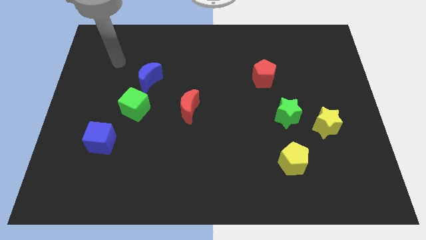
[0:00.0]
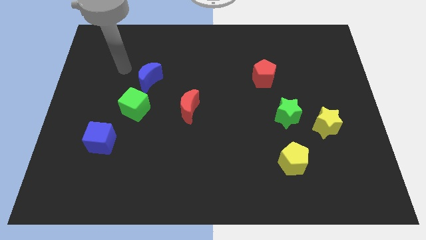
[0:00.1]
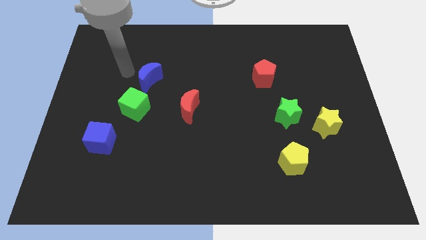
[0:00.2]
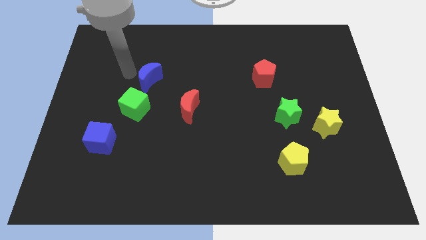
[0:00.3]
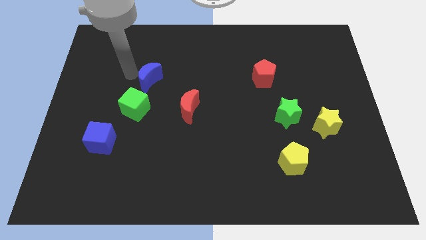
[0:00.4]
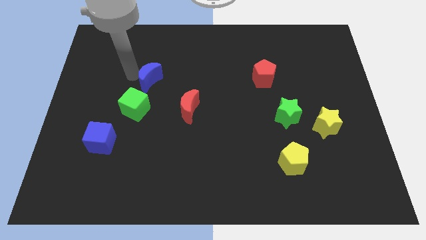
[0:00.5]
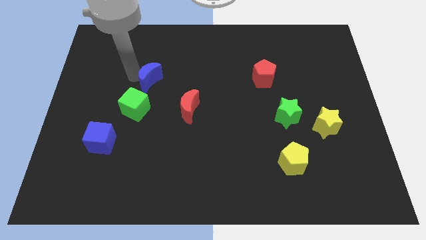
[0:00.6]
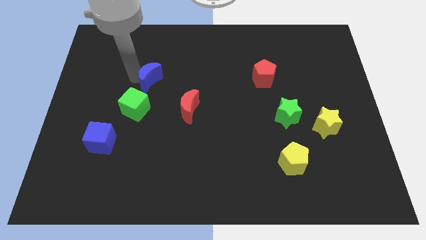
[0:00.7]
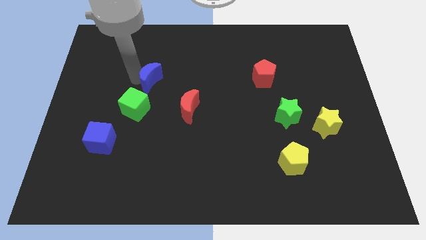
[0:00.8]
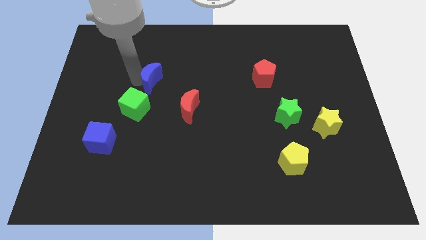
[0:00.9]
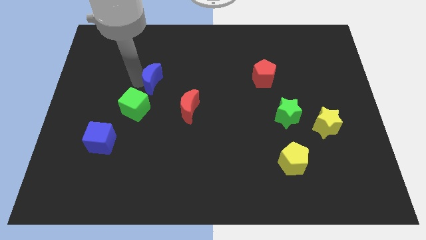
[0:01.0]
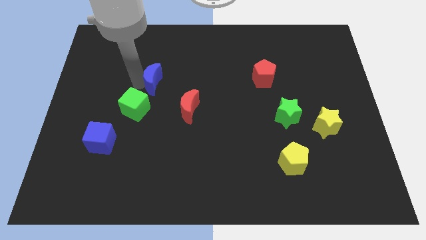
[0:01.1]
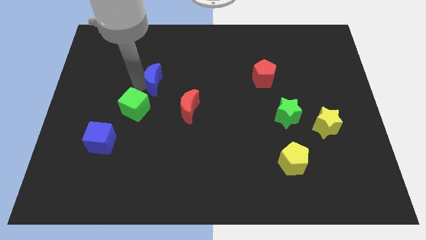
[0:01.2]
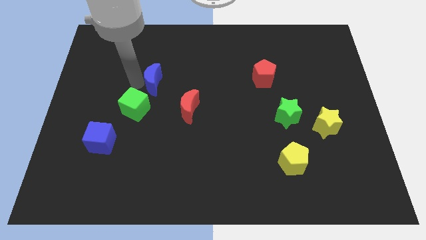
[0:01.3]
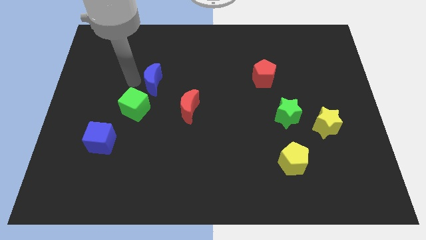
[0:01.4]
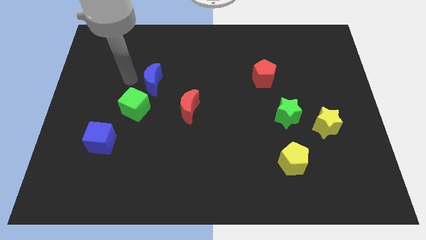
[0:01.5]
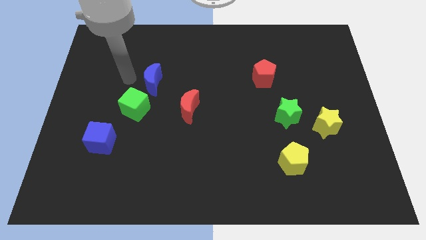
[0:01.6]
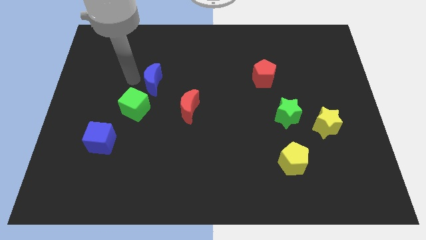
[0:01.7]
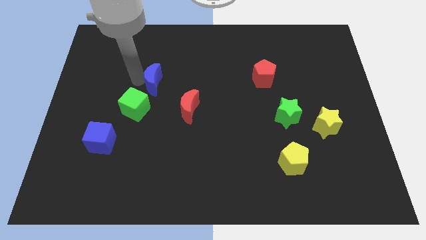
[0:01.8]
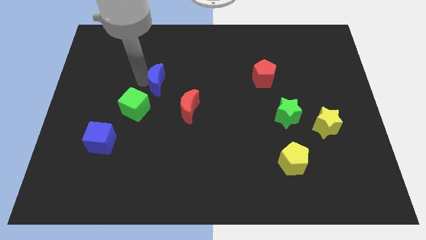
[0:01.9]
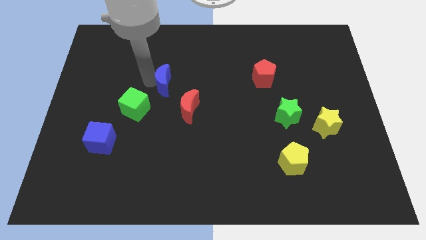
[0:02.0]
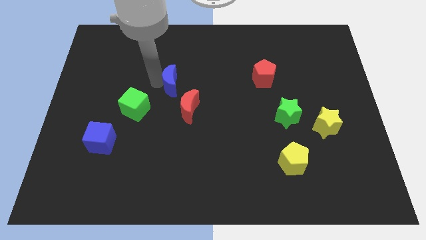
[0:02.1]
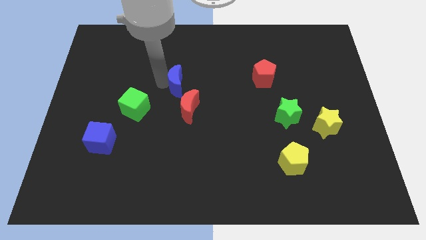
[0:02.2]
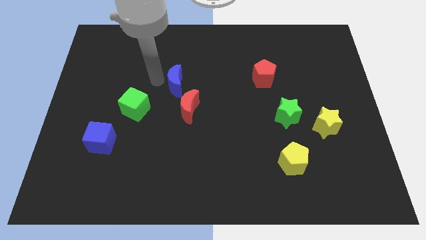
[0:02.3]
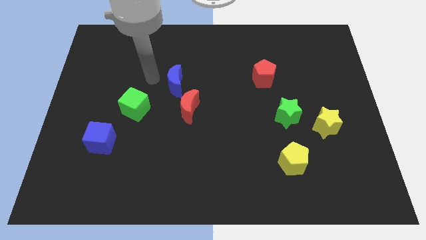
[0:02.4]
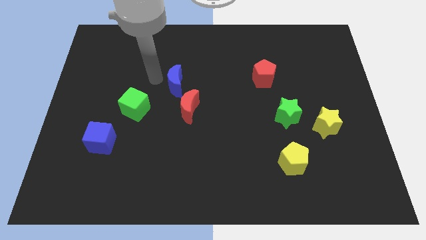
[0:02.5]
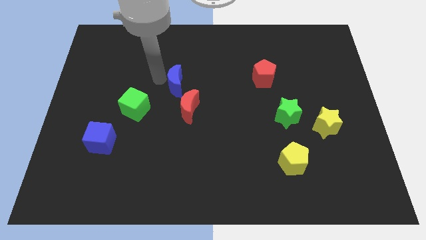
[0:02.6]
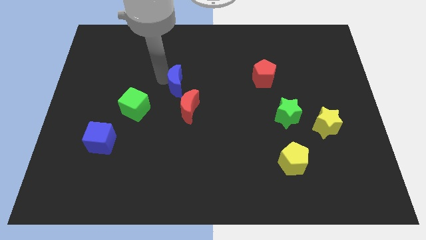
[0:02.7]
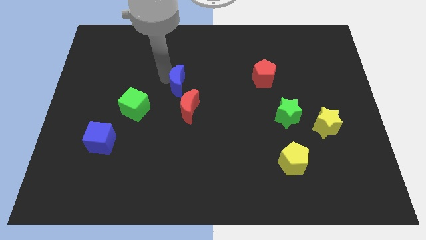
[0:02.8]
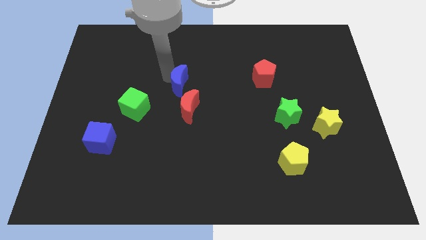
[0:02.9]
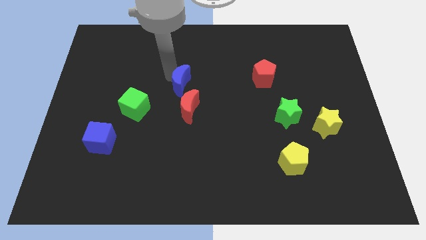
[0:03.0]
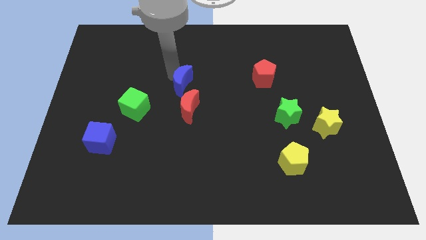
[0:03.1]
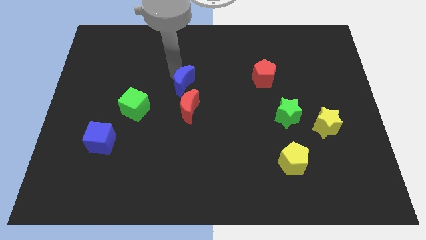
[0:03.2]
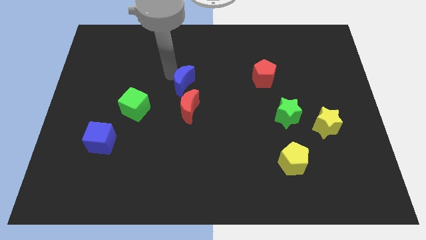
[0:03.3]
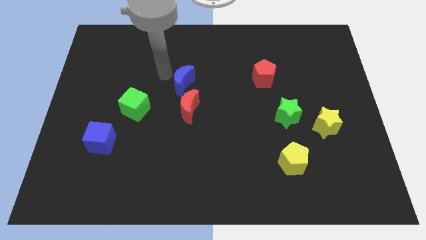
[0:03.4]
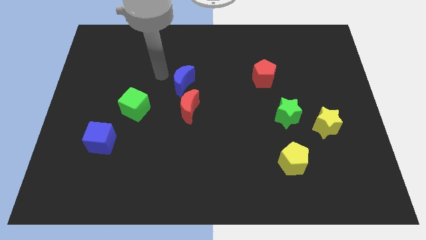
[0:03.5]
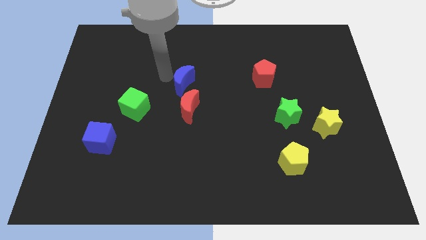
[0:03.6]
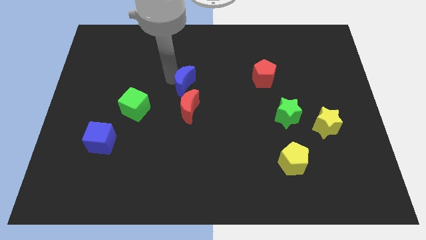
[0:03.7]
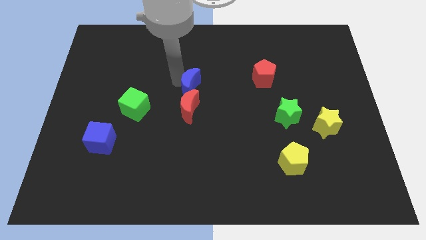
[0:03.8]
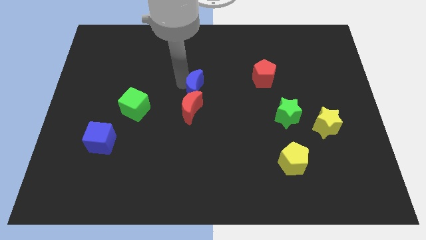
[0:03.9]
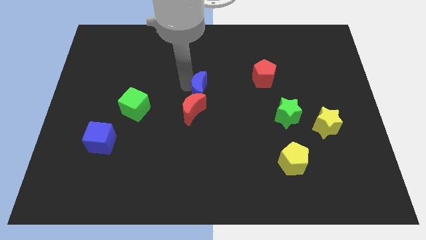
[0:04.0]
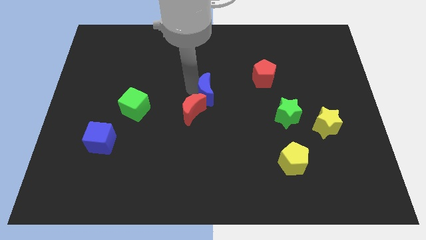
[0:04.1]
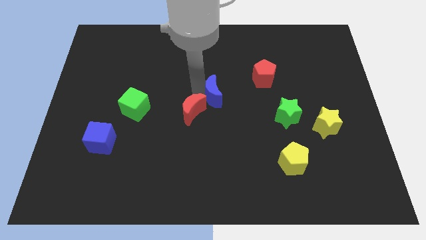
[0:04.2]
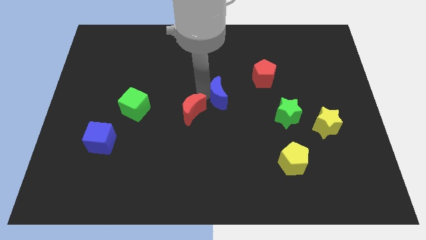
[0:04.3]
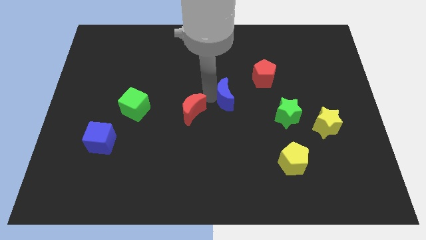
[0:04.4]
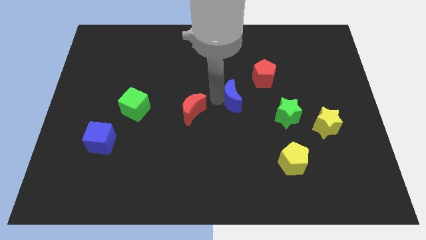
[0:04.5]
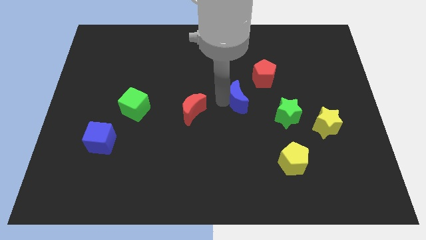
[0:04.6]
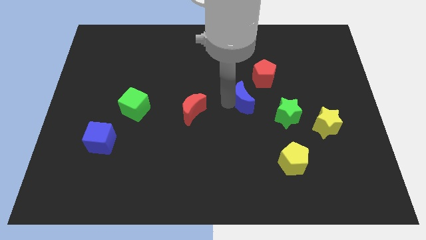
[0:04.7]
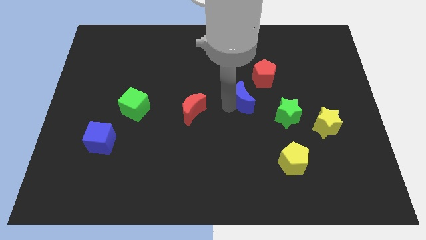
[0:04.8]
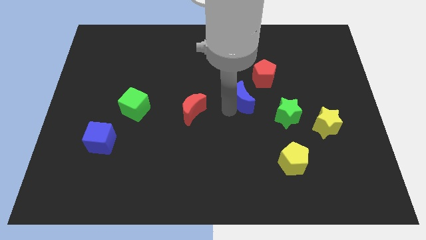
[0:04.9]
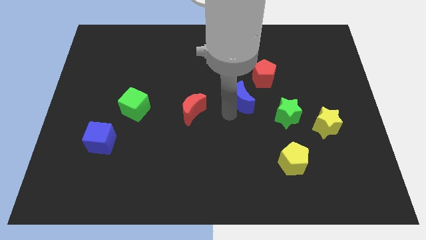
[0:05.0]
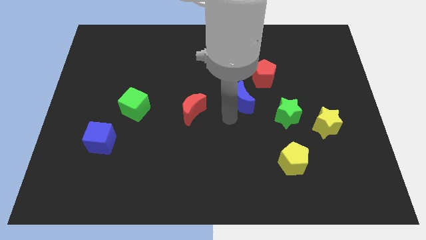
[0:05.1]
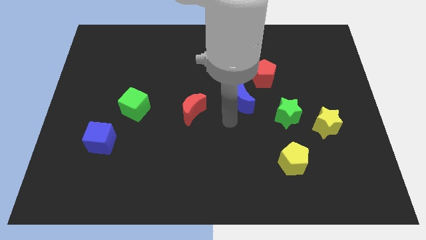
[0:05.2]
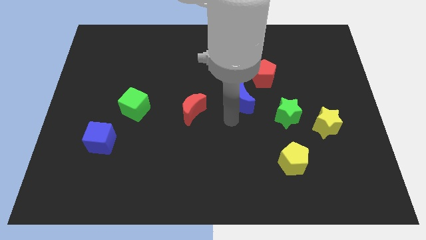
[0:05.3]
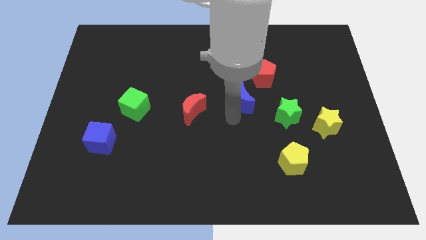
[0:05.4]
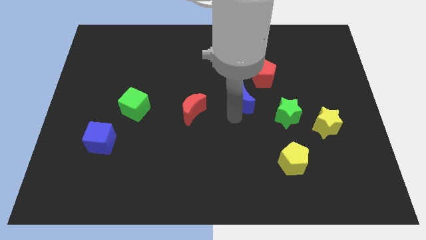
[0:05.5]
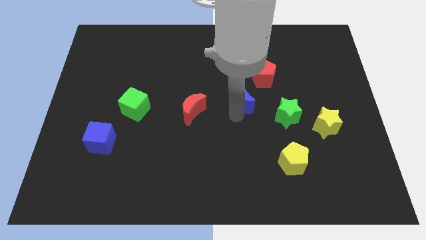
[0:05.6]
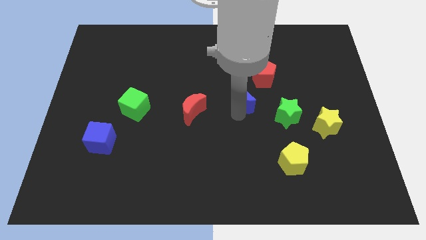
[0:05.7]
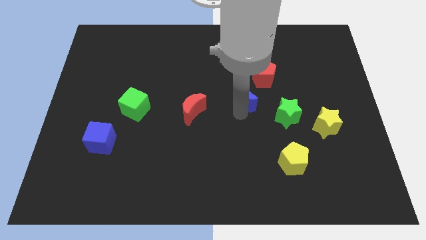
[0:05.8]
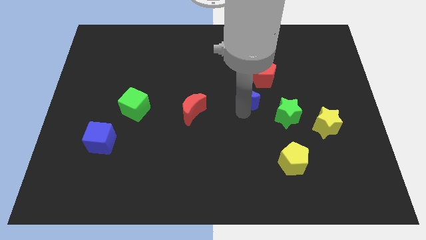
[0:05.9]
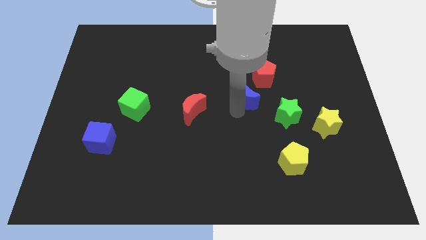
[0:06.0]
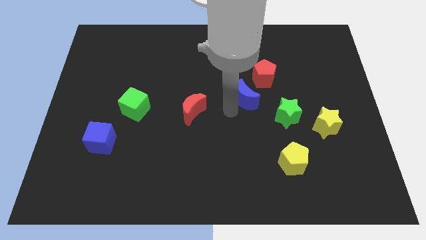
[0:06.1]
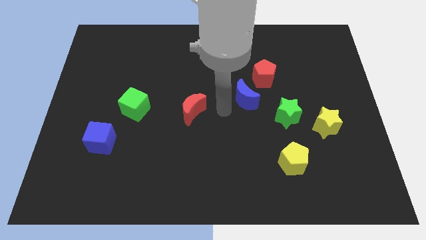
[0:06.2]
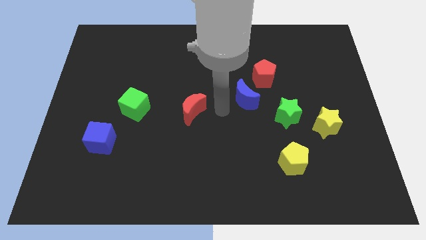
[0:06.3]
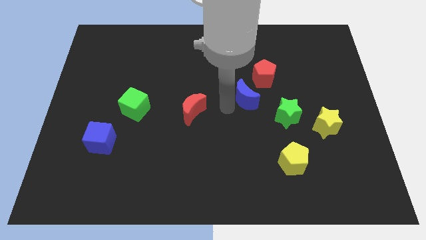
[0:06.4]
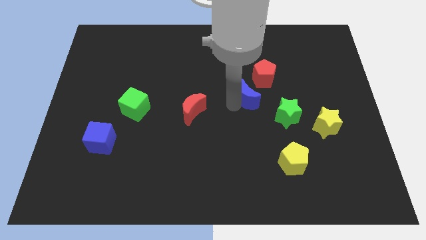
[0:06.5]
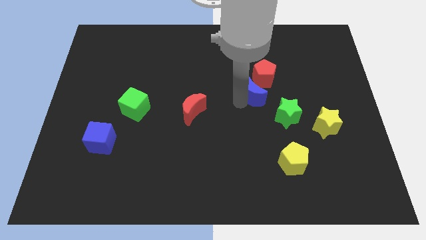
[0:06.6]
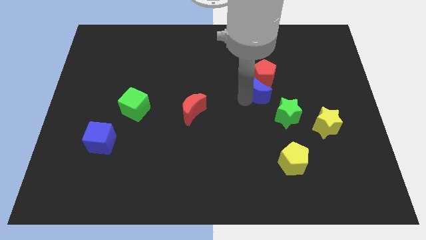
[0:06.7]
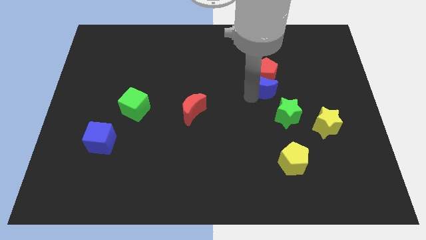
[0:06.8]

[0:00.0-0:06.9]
move the blue moon to the top of the green star
